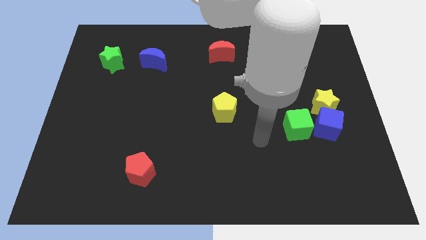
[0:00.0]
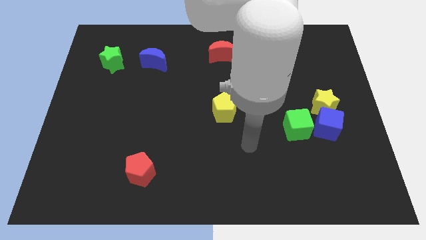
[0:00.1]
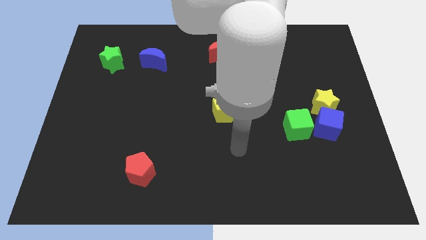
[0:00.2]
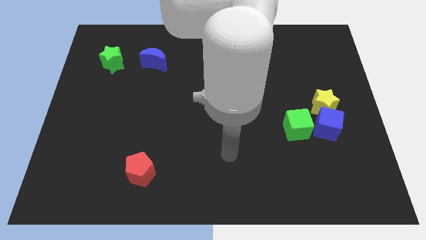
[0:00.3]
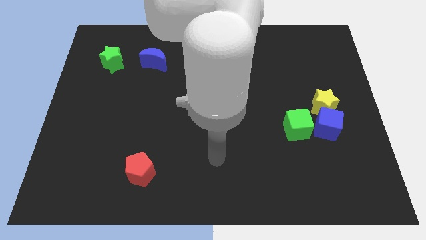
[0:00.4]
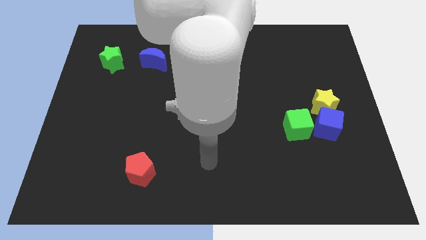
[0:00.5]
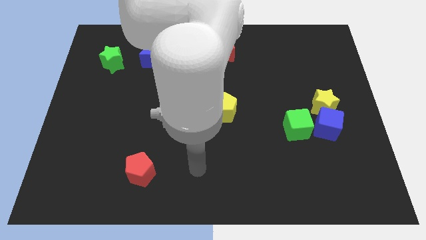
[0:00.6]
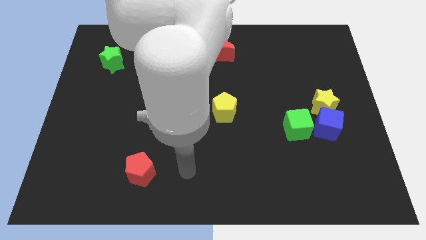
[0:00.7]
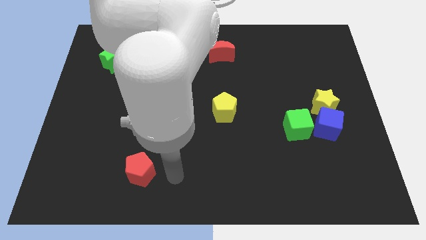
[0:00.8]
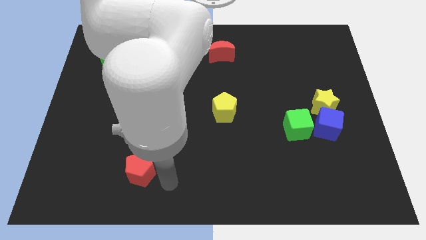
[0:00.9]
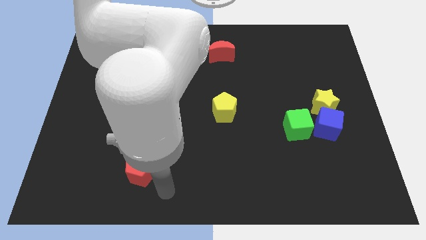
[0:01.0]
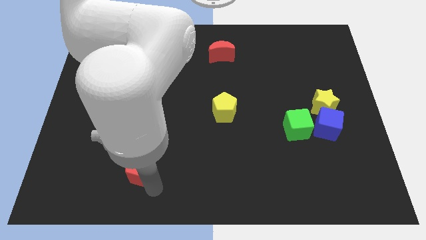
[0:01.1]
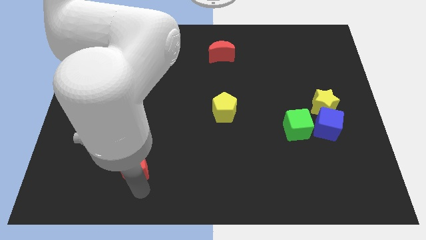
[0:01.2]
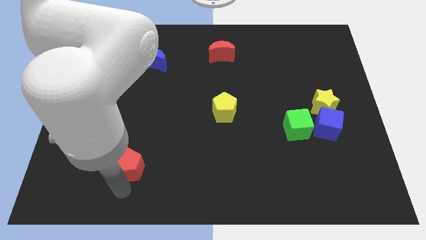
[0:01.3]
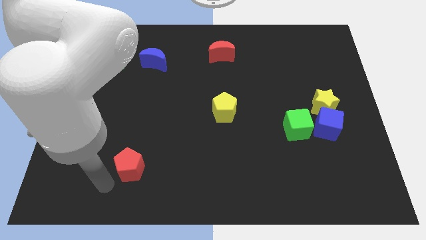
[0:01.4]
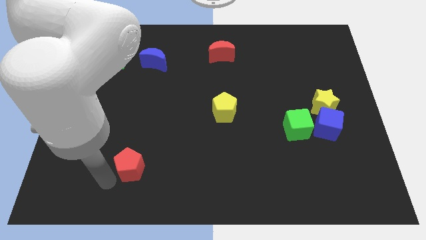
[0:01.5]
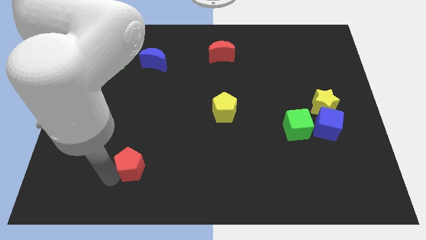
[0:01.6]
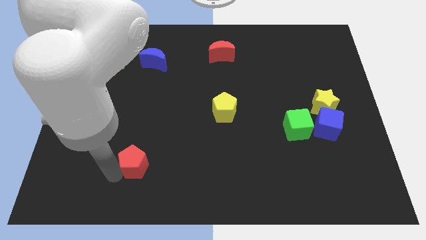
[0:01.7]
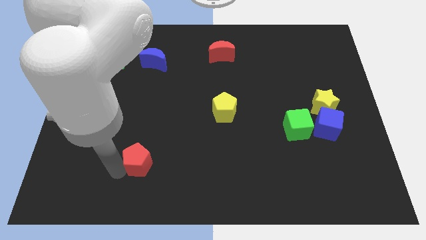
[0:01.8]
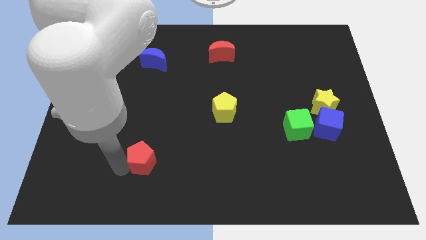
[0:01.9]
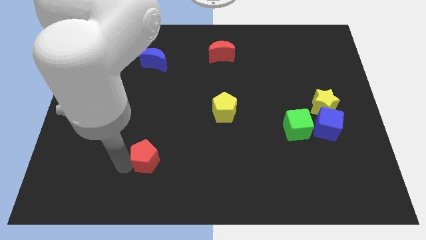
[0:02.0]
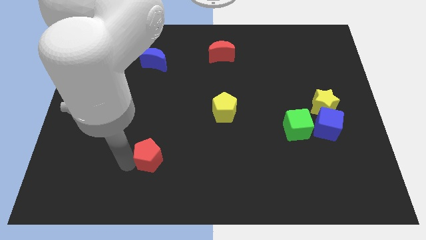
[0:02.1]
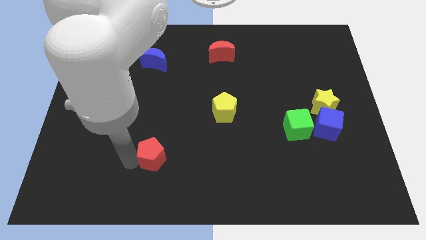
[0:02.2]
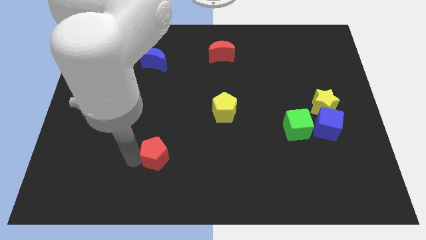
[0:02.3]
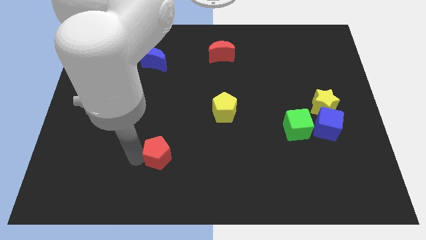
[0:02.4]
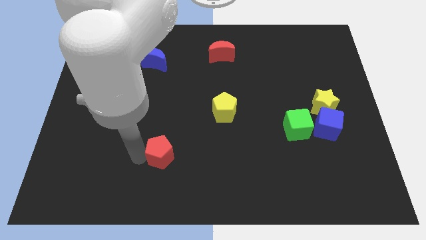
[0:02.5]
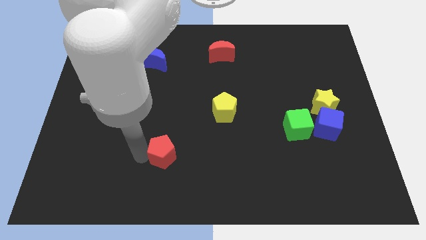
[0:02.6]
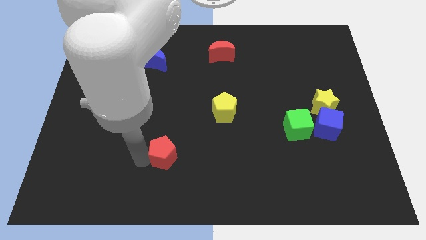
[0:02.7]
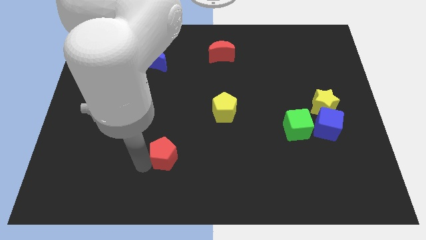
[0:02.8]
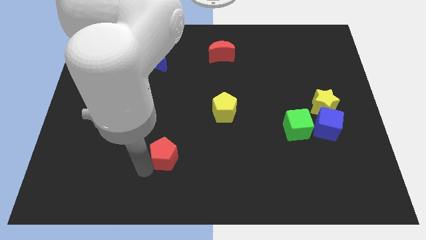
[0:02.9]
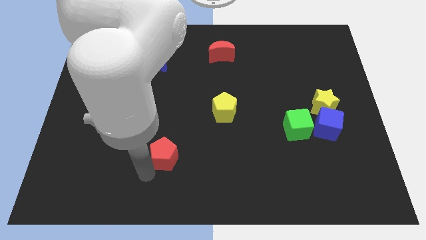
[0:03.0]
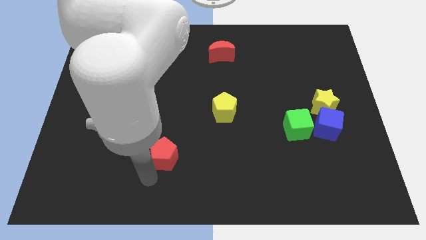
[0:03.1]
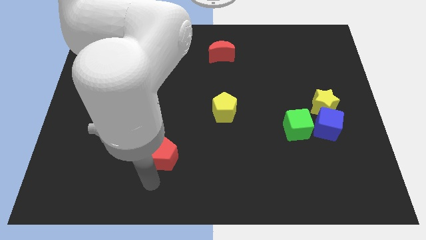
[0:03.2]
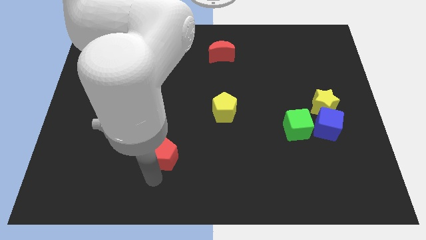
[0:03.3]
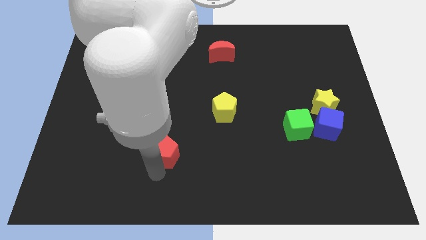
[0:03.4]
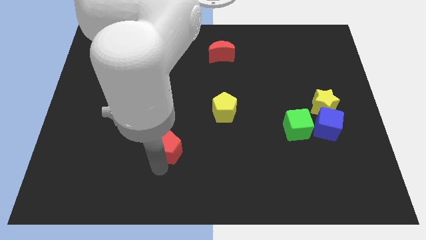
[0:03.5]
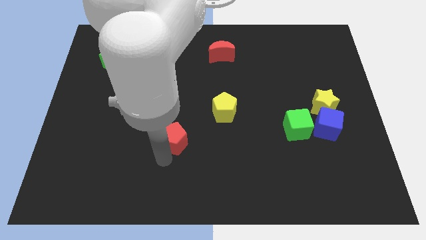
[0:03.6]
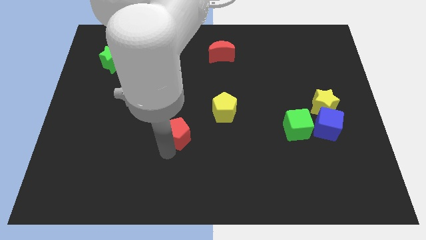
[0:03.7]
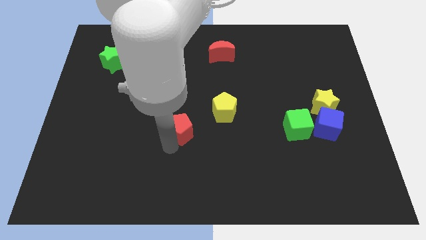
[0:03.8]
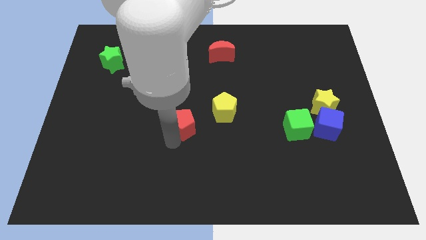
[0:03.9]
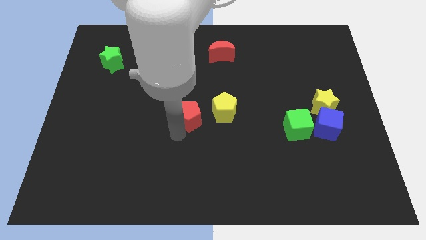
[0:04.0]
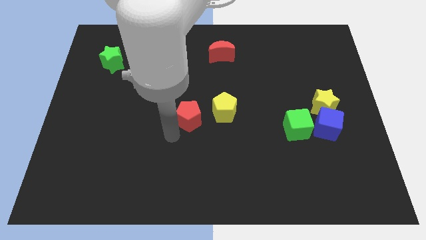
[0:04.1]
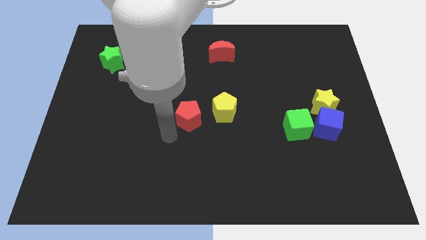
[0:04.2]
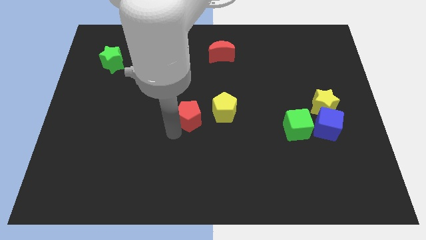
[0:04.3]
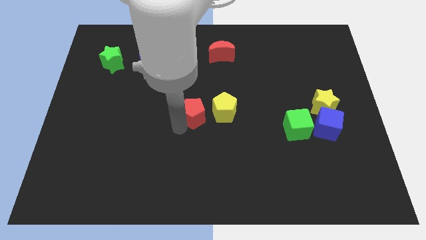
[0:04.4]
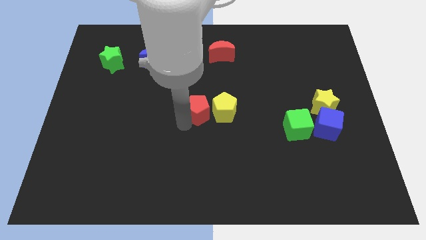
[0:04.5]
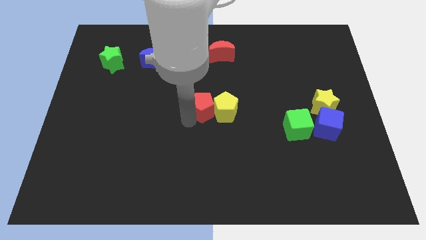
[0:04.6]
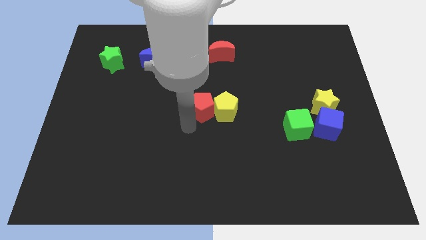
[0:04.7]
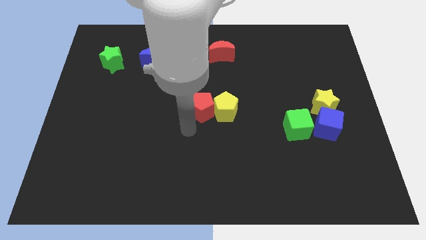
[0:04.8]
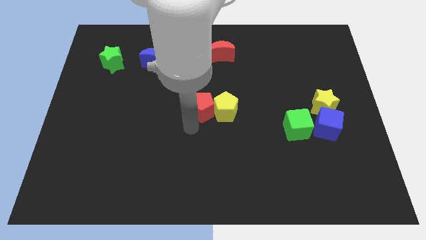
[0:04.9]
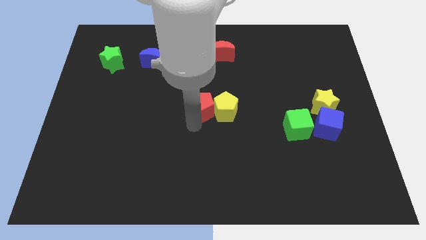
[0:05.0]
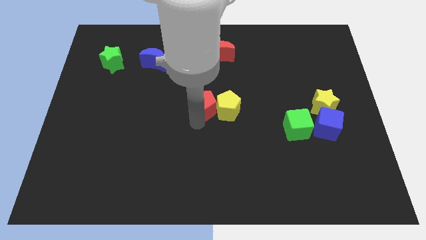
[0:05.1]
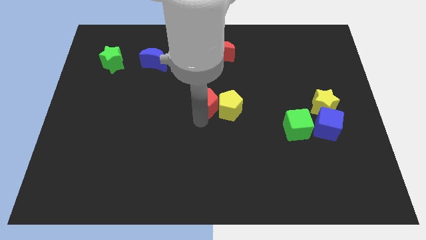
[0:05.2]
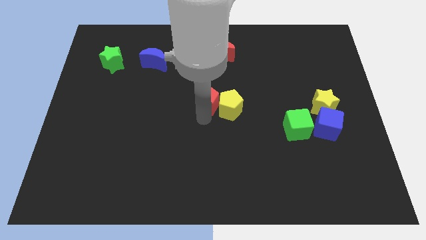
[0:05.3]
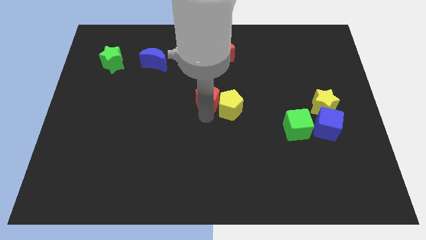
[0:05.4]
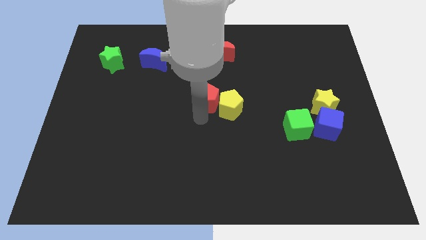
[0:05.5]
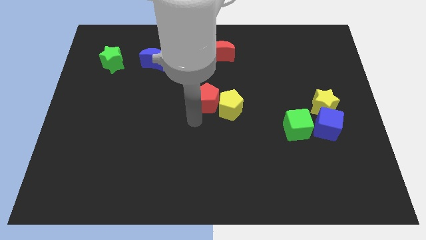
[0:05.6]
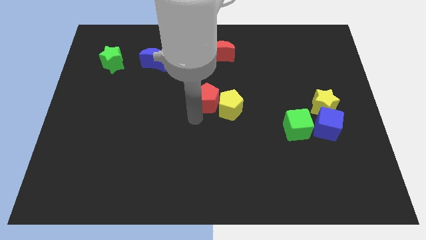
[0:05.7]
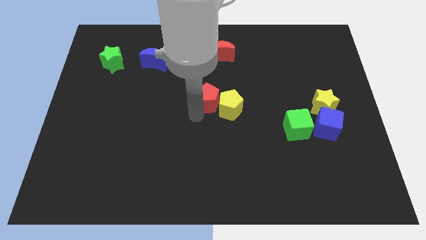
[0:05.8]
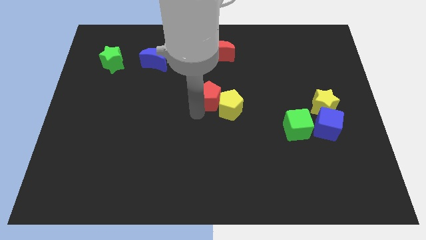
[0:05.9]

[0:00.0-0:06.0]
put the red pentagon to the bottom of the red moon
